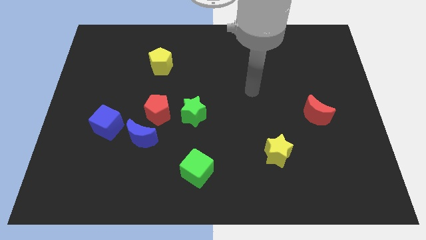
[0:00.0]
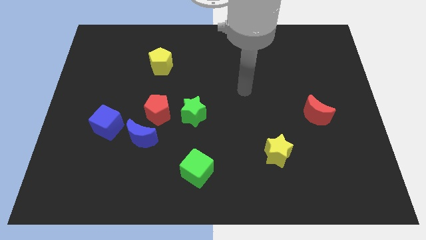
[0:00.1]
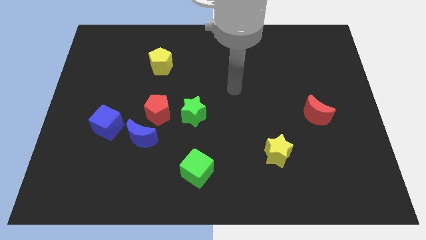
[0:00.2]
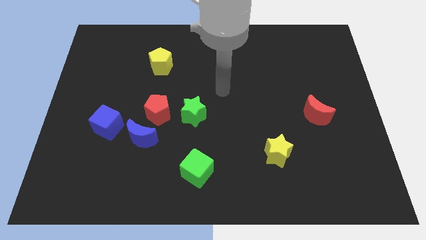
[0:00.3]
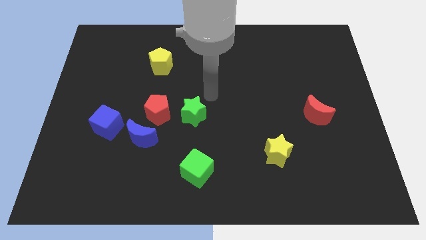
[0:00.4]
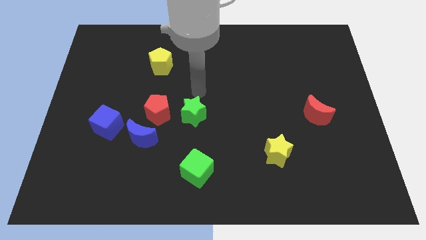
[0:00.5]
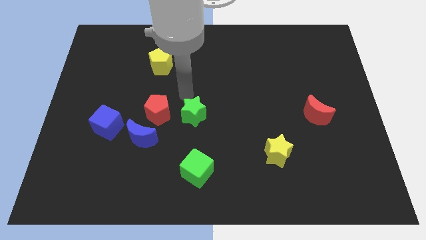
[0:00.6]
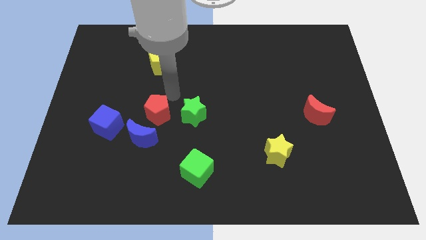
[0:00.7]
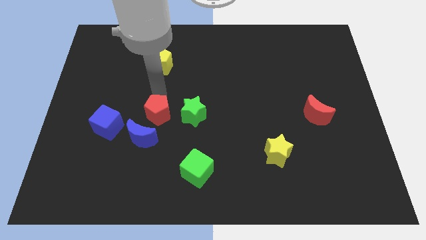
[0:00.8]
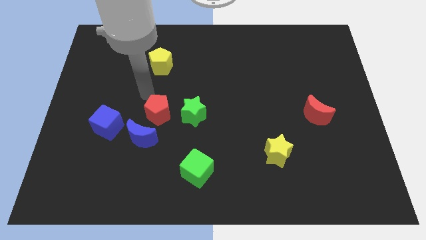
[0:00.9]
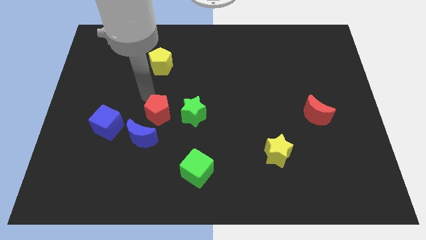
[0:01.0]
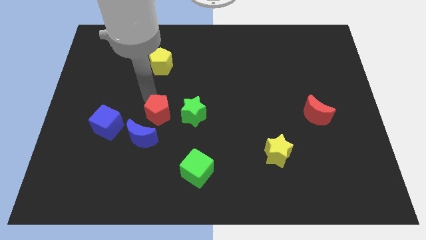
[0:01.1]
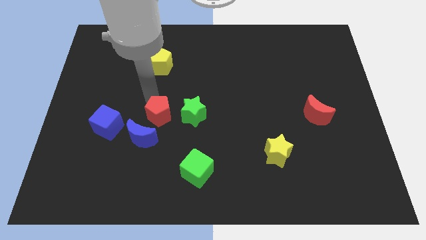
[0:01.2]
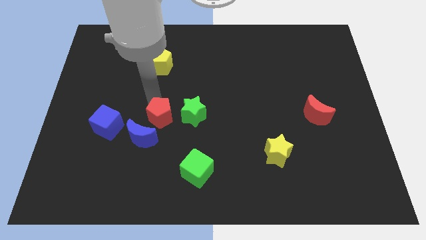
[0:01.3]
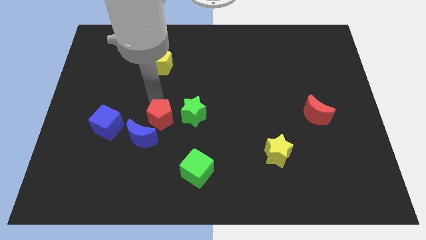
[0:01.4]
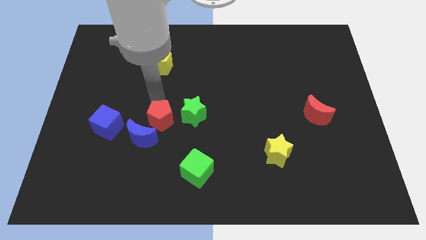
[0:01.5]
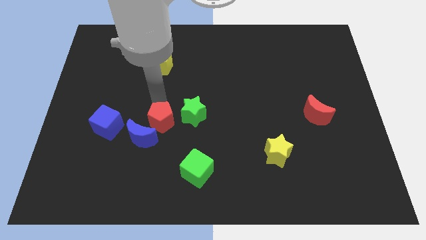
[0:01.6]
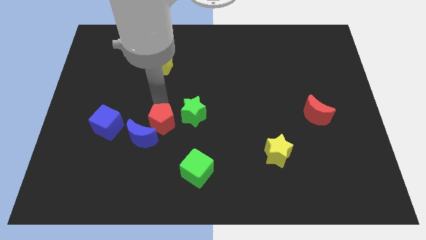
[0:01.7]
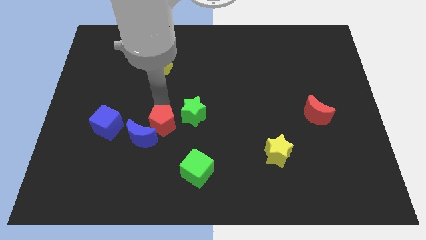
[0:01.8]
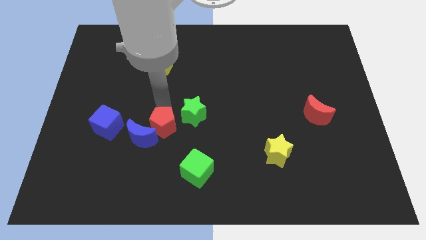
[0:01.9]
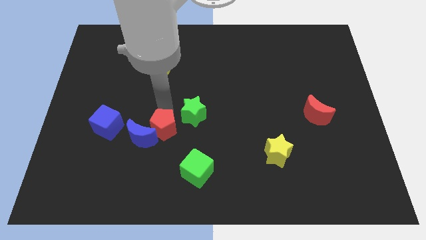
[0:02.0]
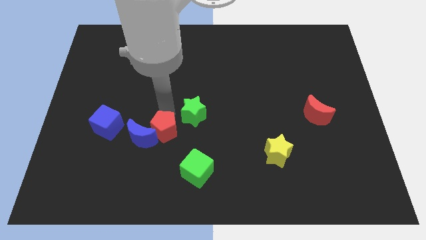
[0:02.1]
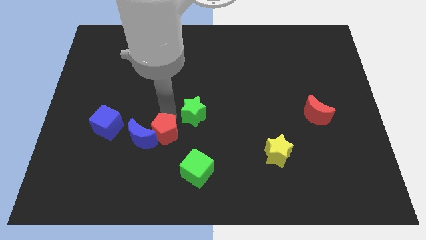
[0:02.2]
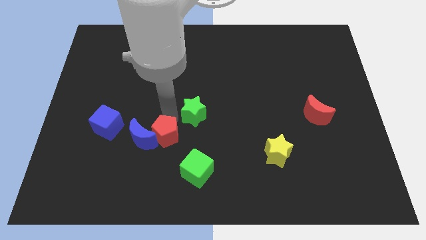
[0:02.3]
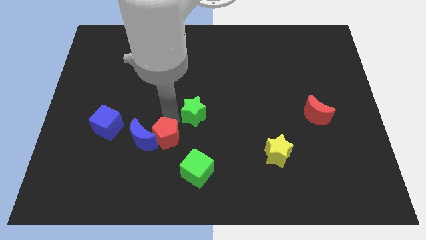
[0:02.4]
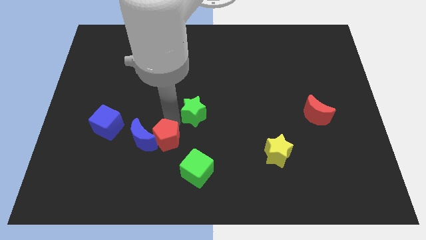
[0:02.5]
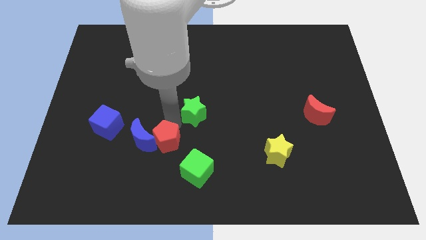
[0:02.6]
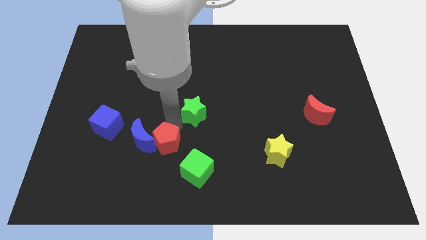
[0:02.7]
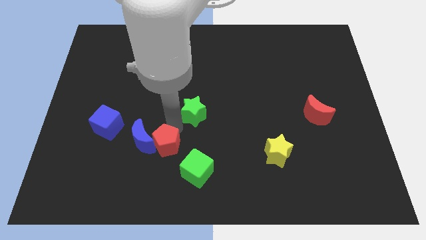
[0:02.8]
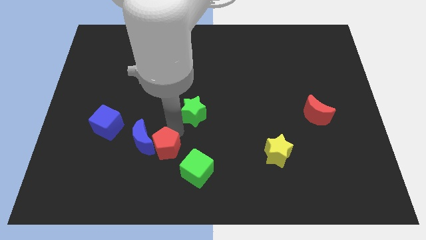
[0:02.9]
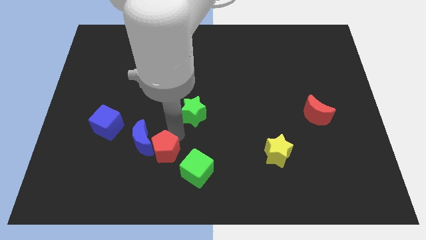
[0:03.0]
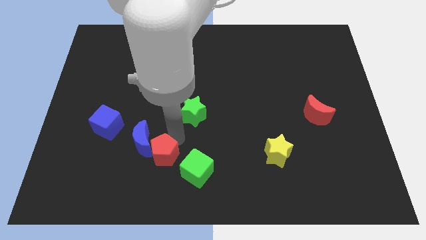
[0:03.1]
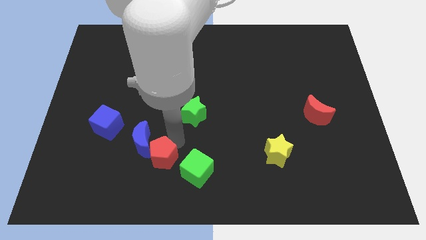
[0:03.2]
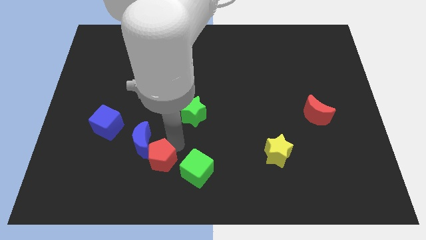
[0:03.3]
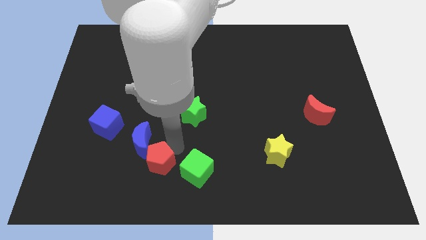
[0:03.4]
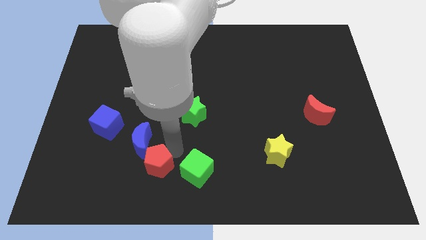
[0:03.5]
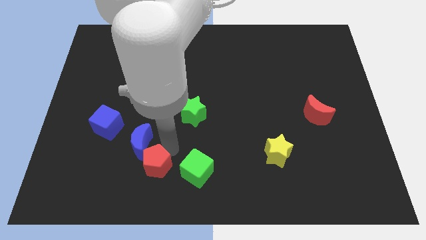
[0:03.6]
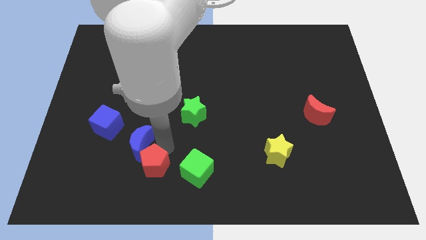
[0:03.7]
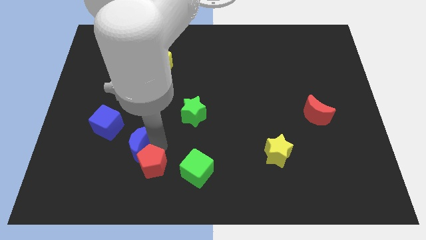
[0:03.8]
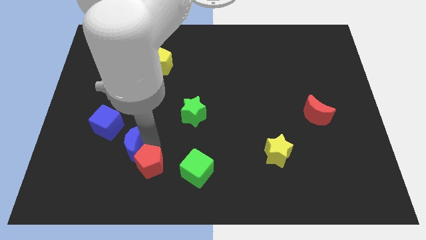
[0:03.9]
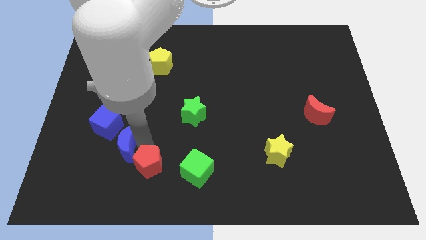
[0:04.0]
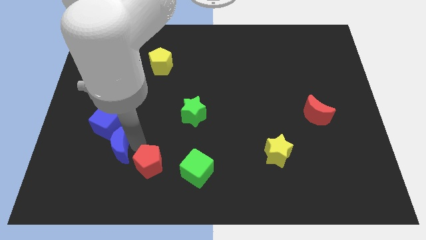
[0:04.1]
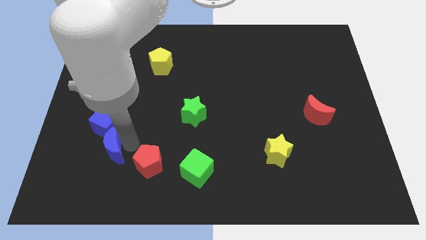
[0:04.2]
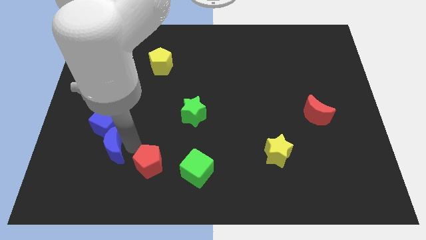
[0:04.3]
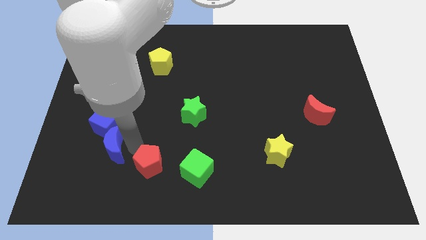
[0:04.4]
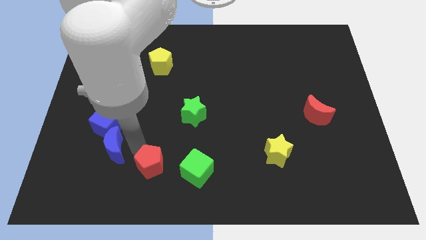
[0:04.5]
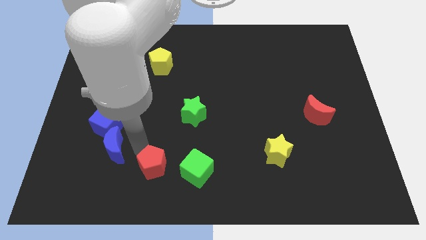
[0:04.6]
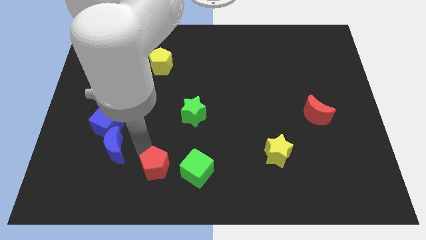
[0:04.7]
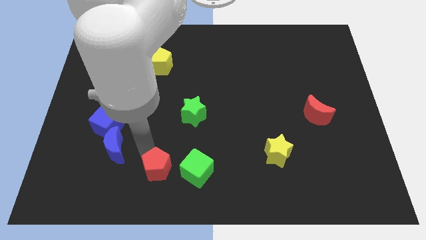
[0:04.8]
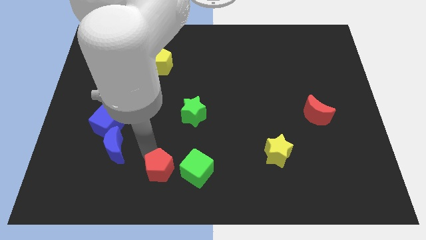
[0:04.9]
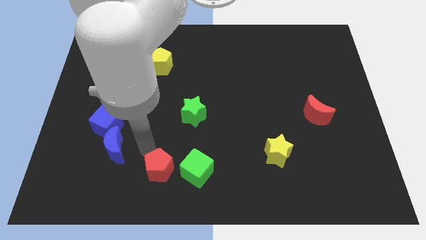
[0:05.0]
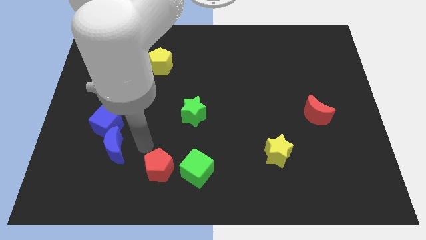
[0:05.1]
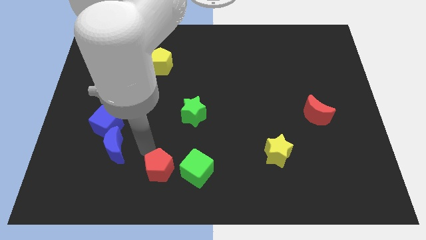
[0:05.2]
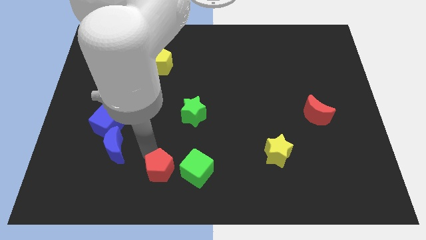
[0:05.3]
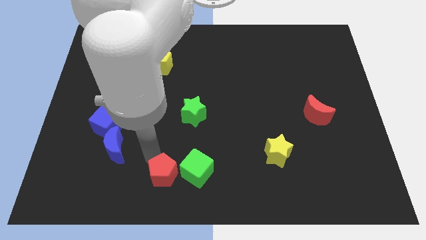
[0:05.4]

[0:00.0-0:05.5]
slide the red pentagon to the bottom side

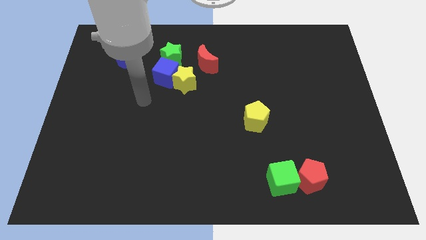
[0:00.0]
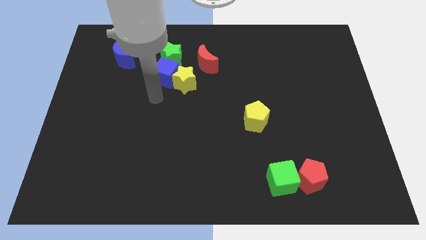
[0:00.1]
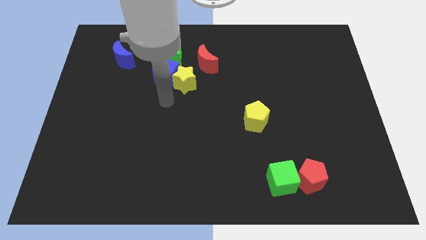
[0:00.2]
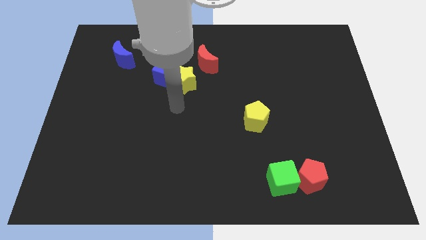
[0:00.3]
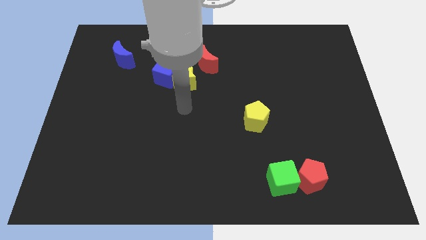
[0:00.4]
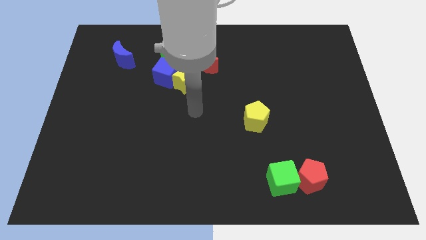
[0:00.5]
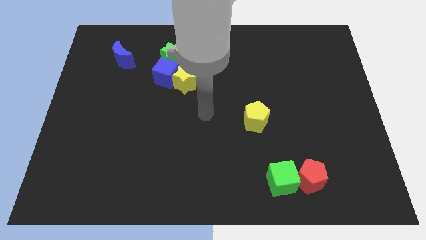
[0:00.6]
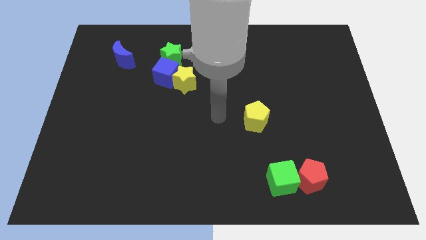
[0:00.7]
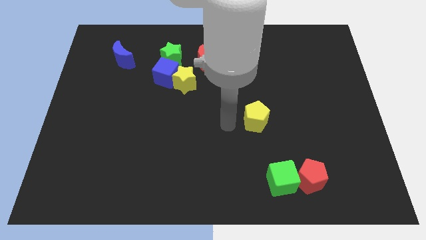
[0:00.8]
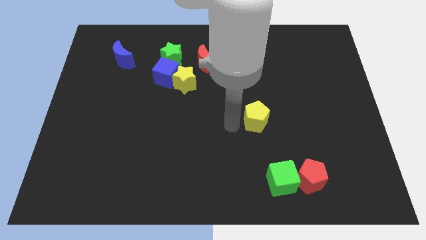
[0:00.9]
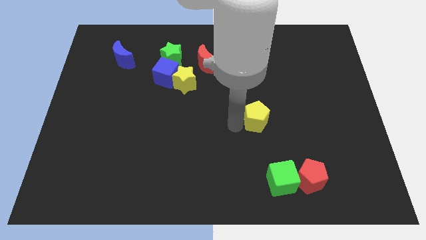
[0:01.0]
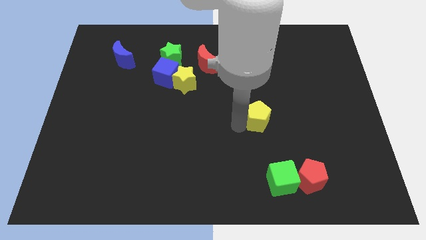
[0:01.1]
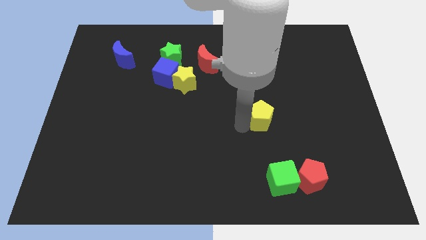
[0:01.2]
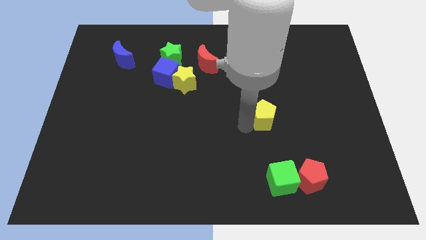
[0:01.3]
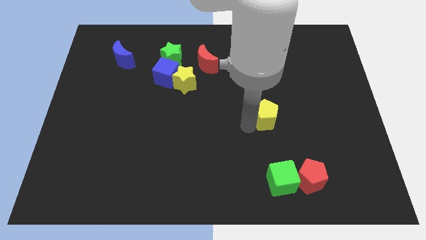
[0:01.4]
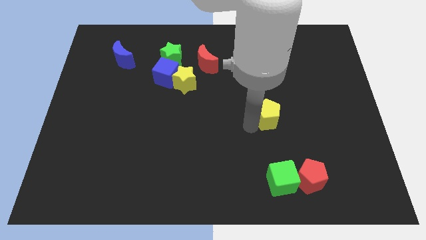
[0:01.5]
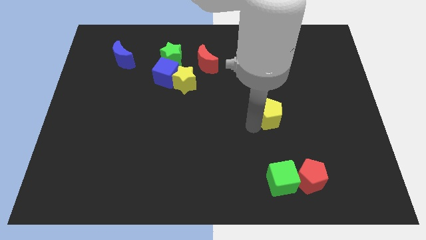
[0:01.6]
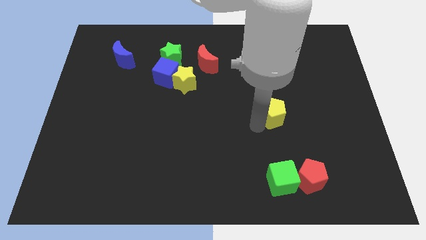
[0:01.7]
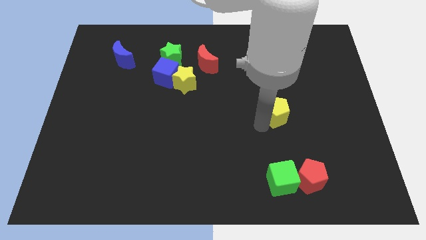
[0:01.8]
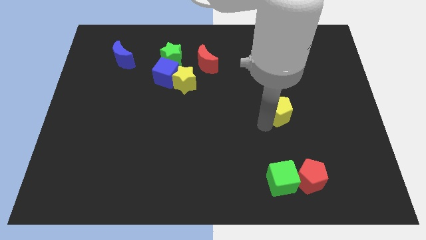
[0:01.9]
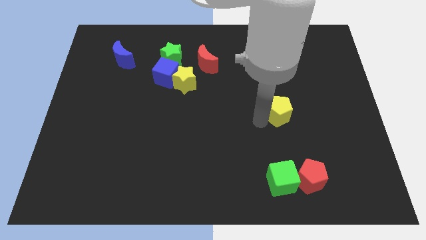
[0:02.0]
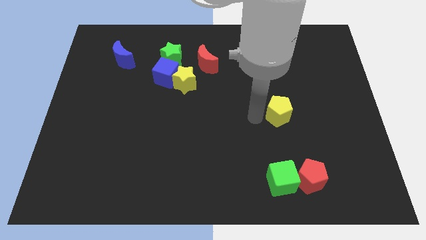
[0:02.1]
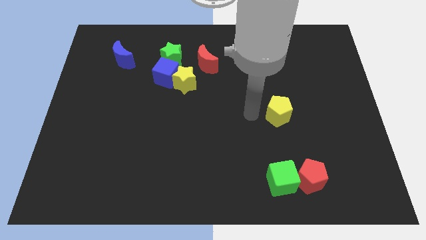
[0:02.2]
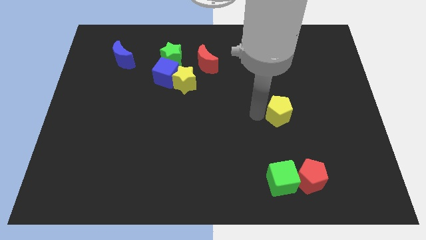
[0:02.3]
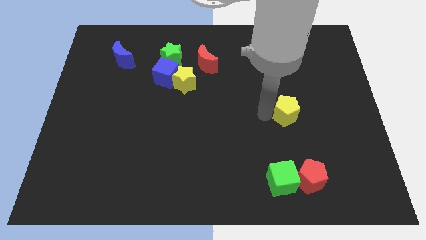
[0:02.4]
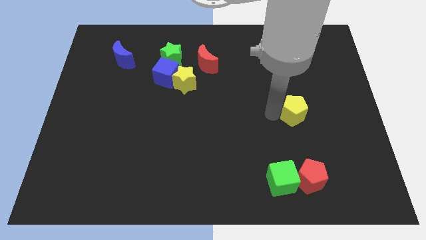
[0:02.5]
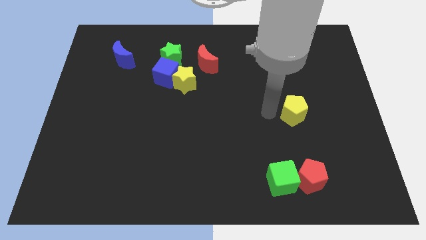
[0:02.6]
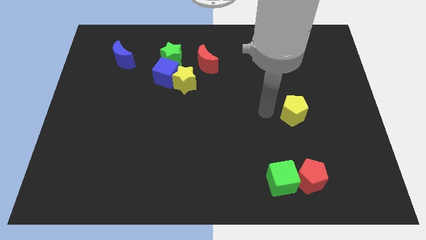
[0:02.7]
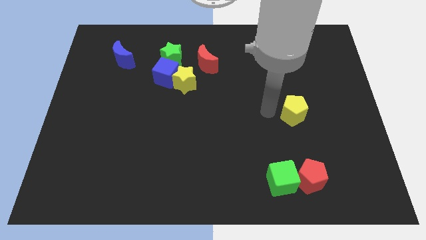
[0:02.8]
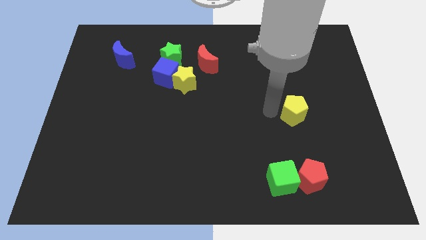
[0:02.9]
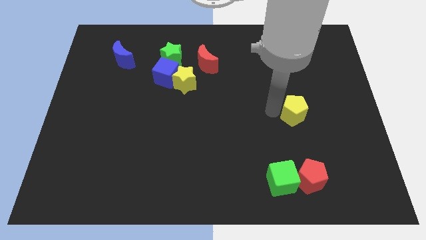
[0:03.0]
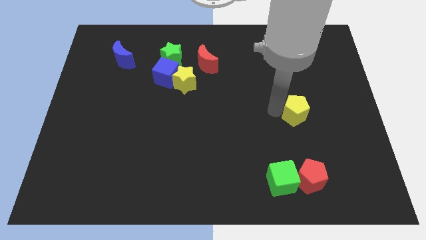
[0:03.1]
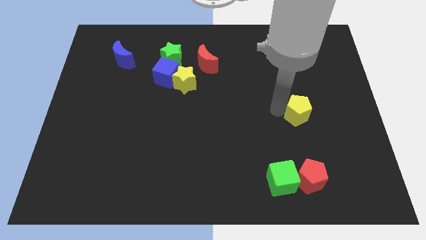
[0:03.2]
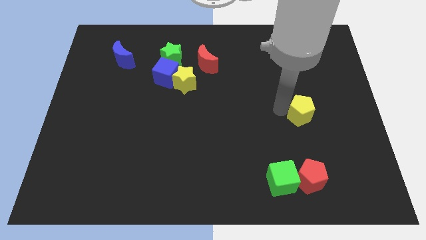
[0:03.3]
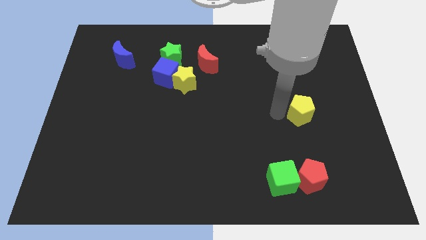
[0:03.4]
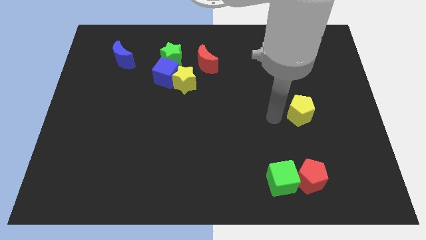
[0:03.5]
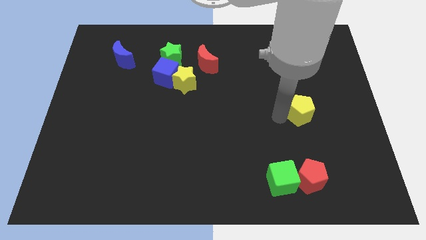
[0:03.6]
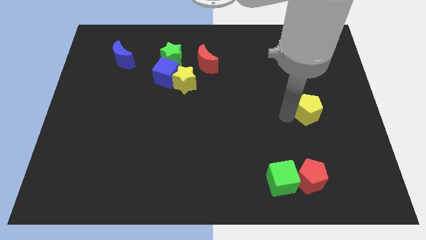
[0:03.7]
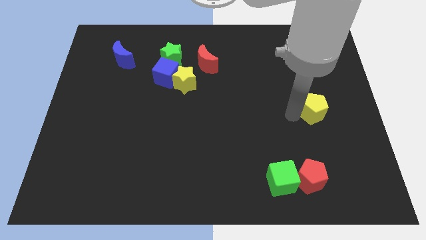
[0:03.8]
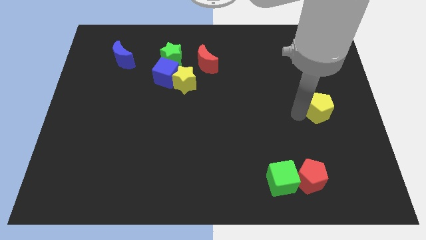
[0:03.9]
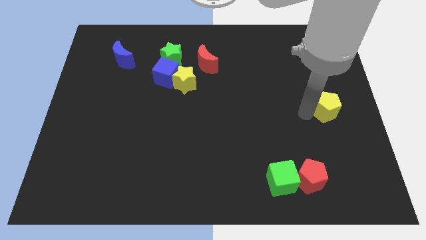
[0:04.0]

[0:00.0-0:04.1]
slide the yellow pentagon to the right side
